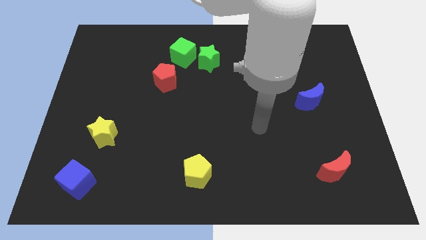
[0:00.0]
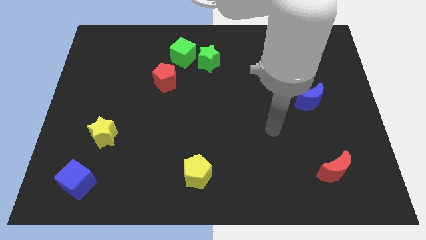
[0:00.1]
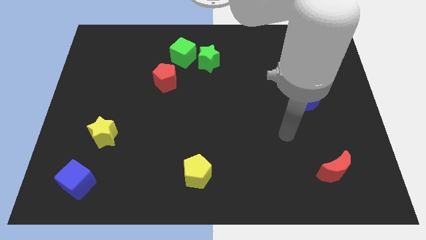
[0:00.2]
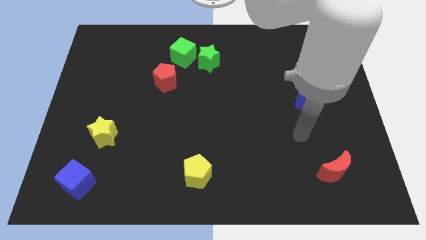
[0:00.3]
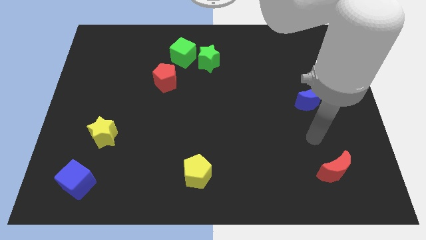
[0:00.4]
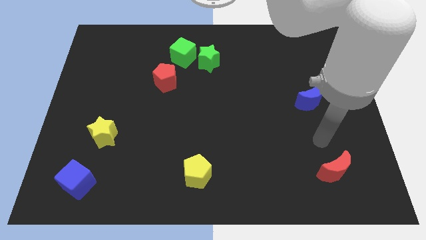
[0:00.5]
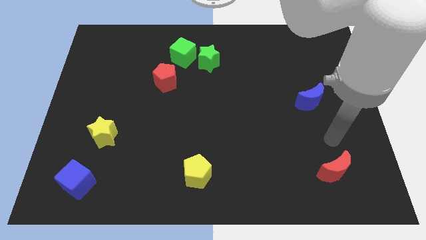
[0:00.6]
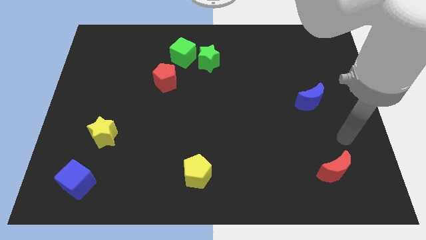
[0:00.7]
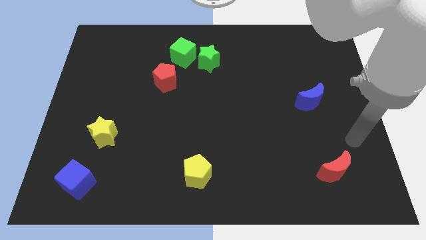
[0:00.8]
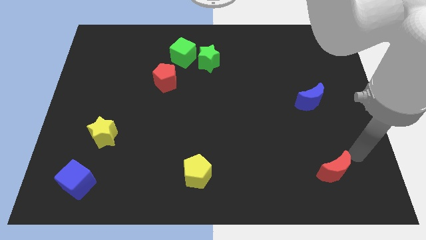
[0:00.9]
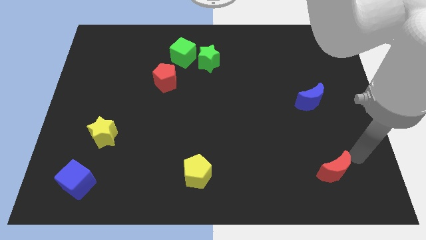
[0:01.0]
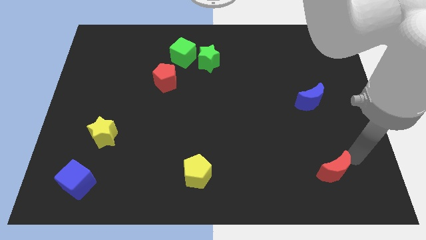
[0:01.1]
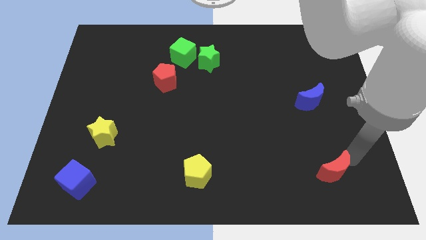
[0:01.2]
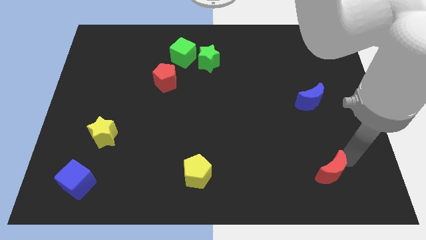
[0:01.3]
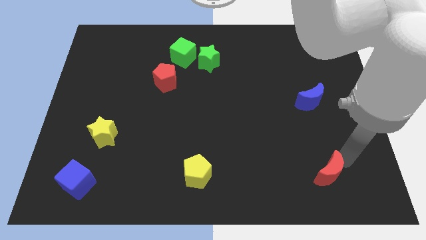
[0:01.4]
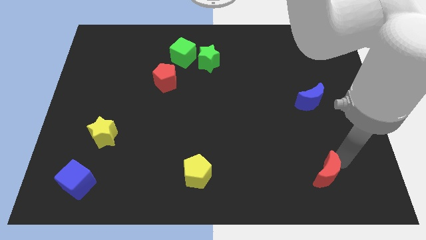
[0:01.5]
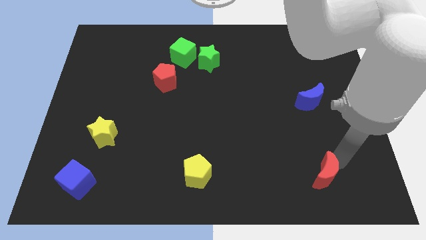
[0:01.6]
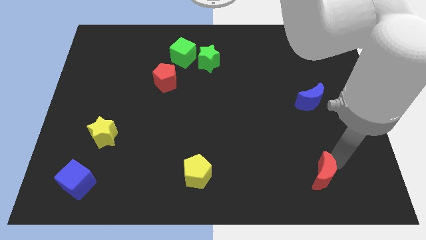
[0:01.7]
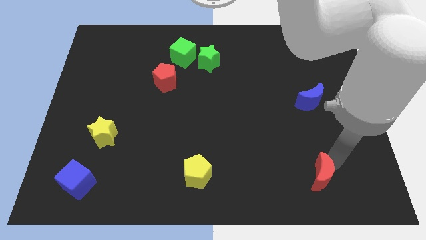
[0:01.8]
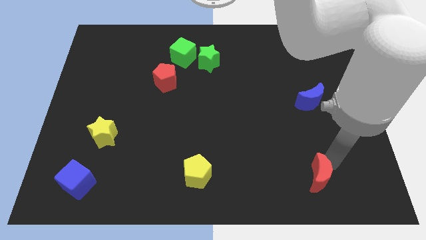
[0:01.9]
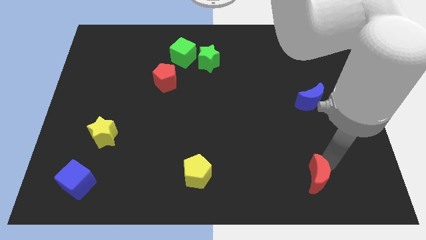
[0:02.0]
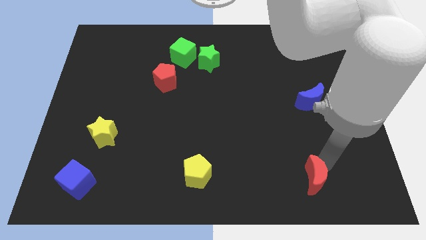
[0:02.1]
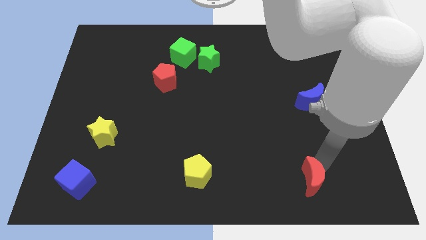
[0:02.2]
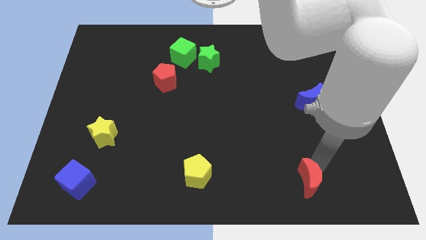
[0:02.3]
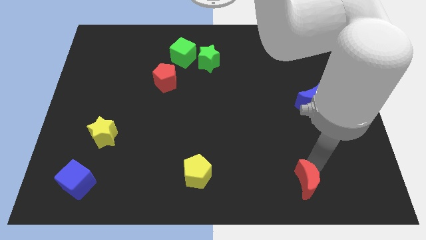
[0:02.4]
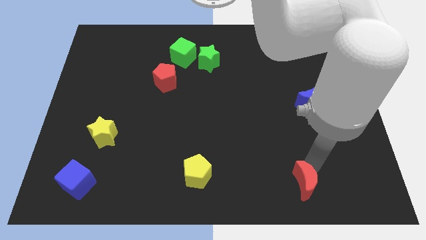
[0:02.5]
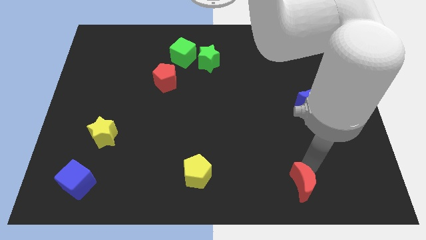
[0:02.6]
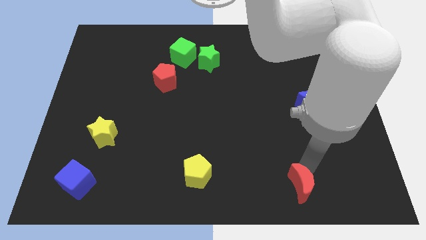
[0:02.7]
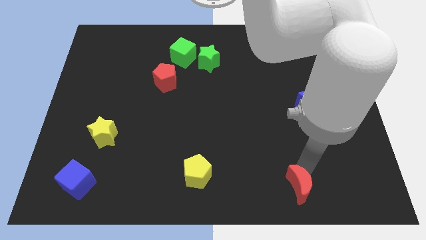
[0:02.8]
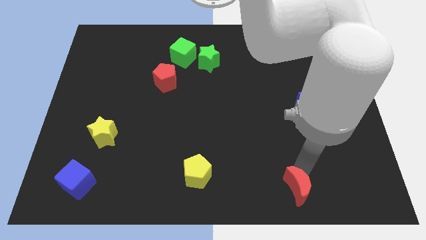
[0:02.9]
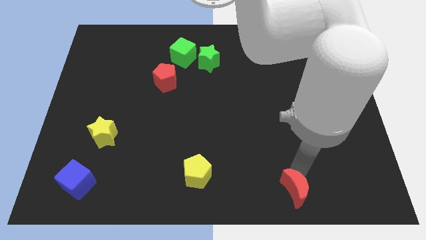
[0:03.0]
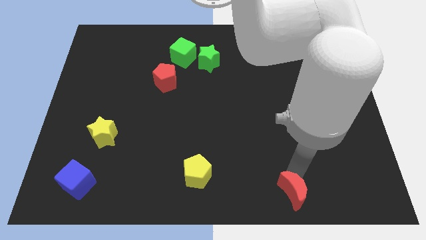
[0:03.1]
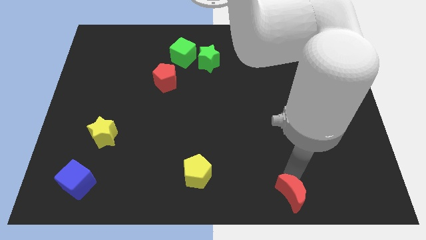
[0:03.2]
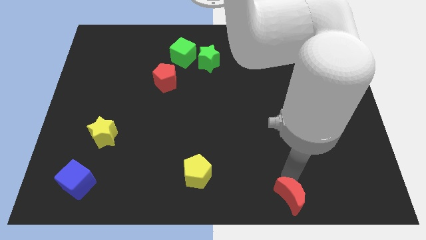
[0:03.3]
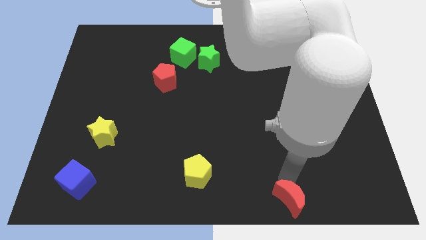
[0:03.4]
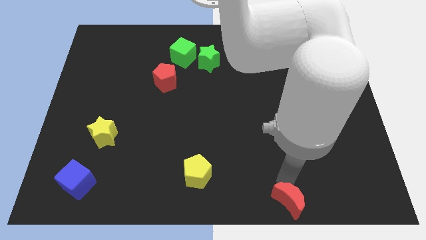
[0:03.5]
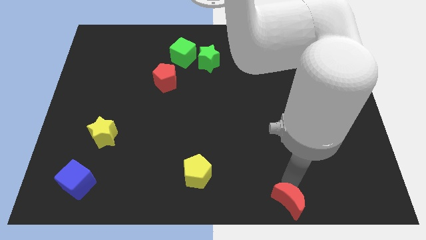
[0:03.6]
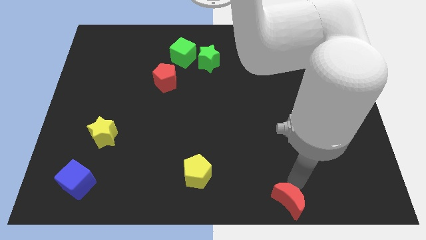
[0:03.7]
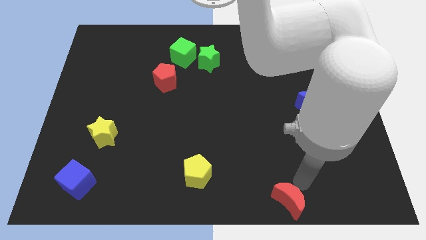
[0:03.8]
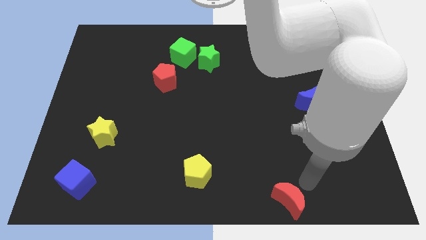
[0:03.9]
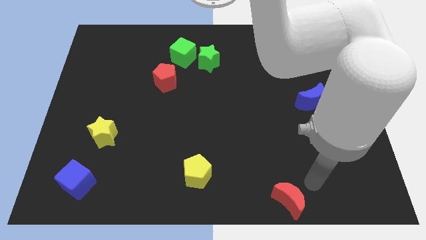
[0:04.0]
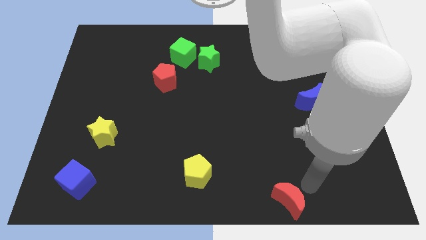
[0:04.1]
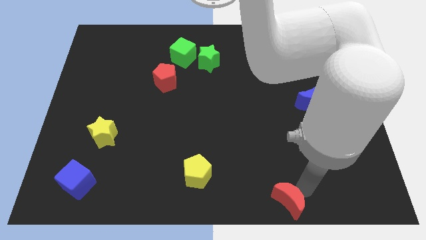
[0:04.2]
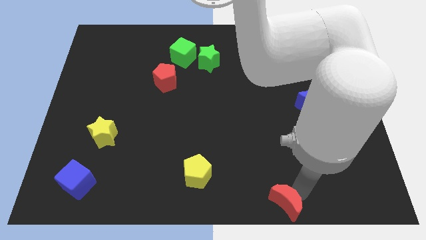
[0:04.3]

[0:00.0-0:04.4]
slide the red moon to the bottom side

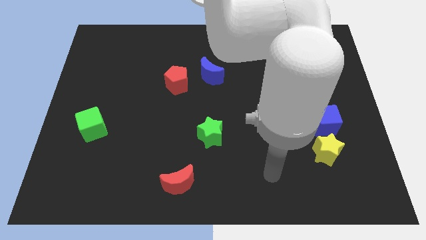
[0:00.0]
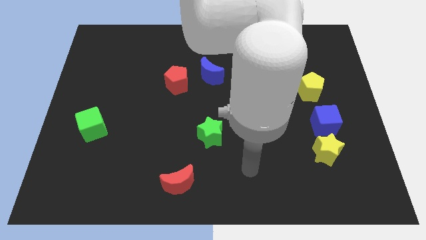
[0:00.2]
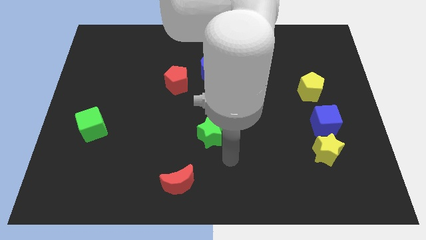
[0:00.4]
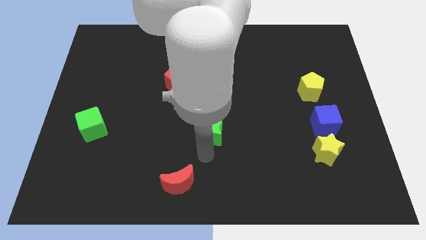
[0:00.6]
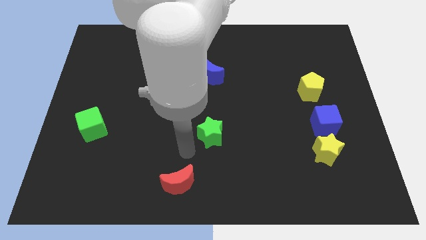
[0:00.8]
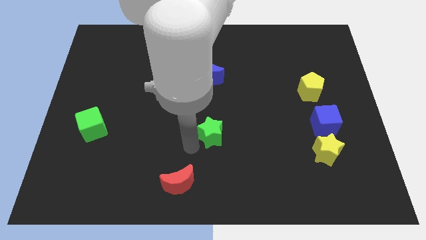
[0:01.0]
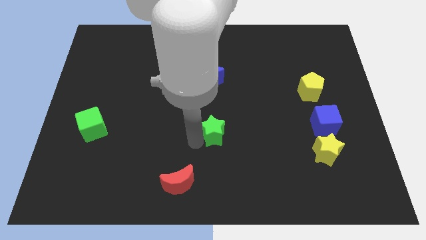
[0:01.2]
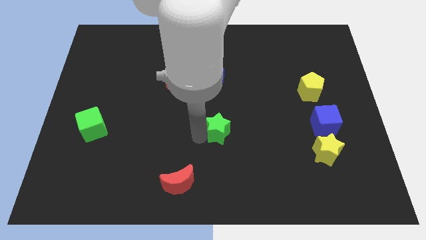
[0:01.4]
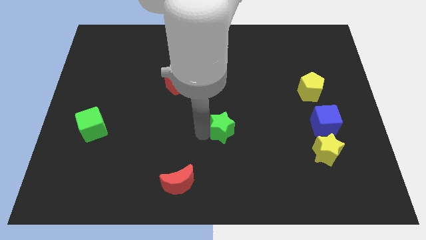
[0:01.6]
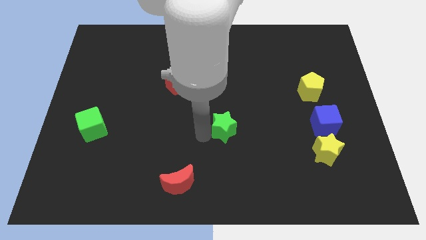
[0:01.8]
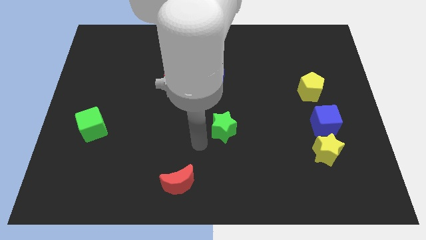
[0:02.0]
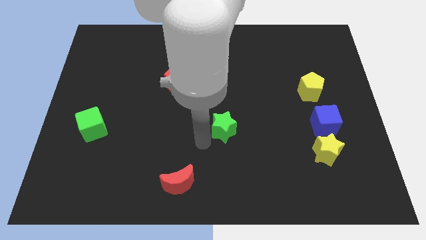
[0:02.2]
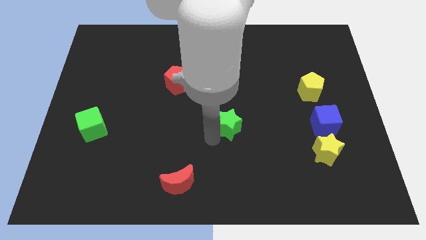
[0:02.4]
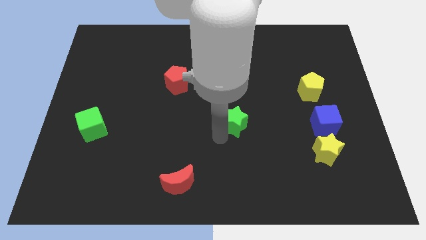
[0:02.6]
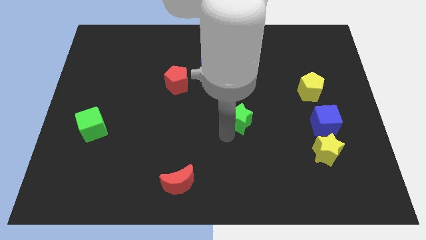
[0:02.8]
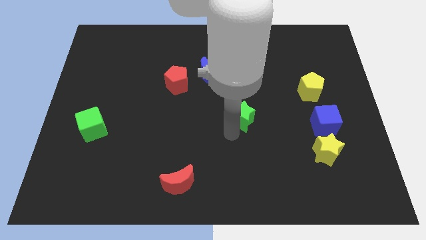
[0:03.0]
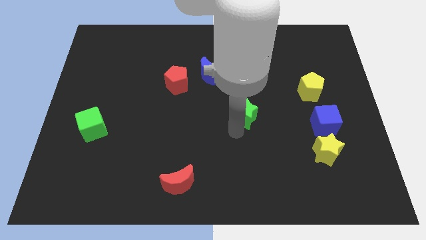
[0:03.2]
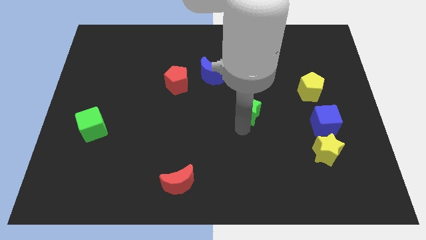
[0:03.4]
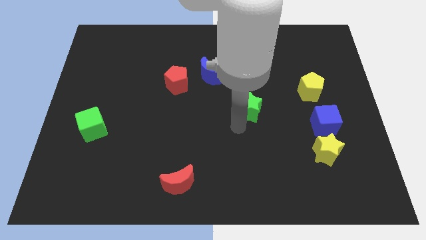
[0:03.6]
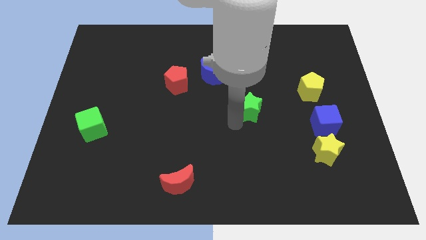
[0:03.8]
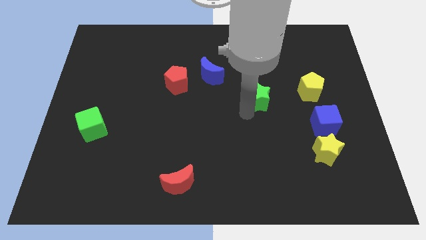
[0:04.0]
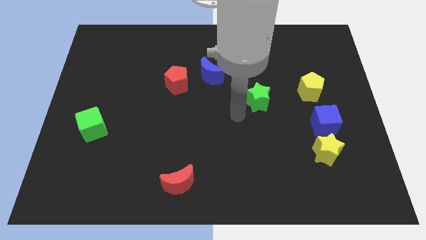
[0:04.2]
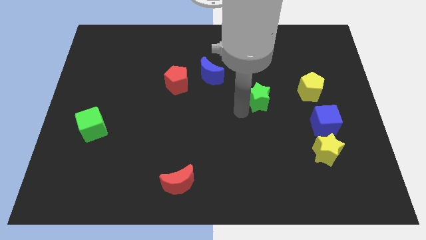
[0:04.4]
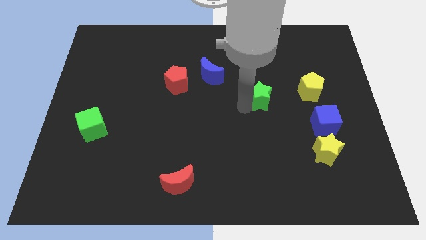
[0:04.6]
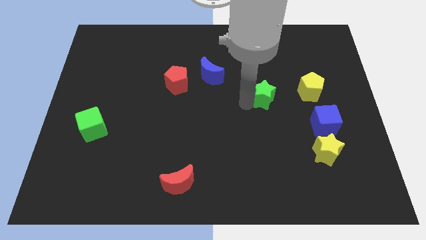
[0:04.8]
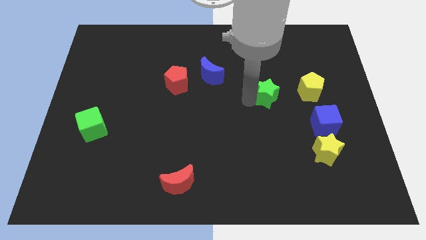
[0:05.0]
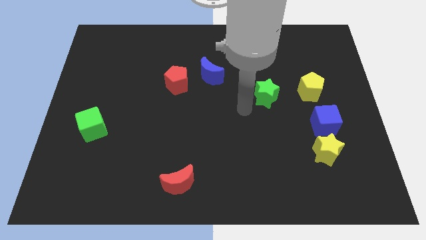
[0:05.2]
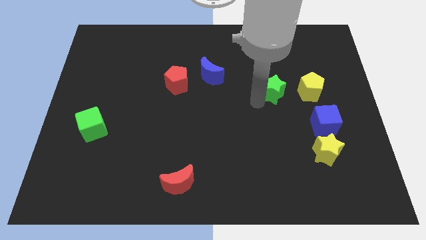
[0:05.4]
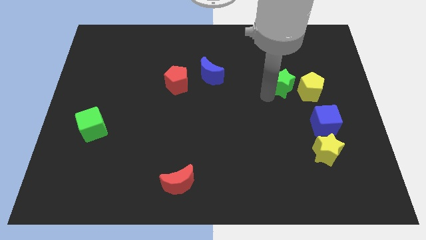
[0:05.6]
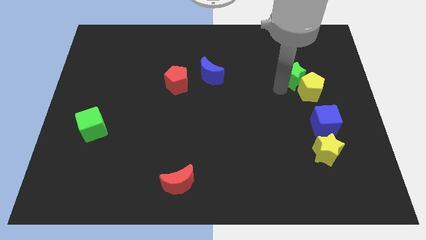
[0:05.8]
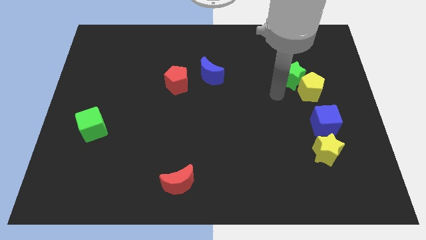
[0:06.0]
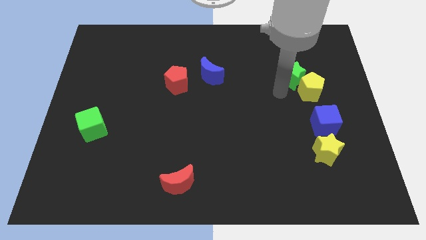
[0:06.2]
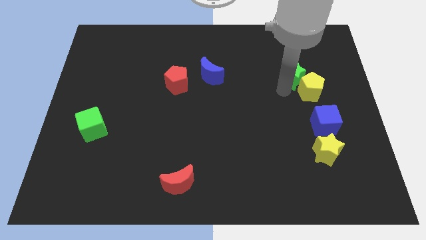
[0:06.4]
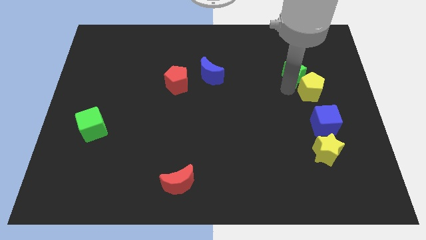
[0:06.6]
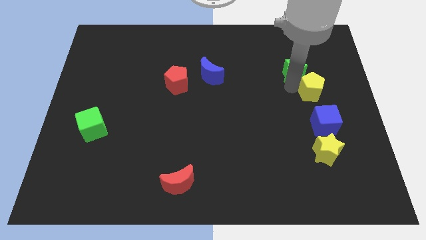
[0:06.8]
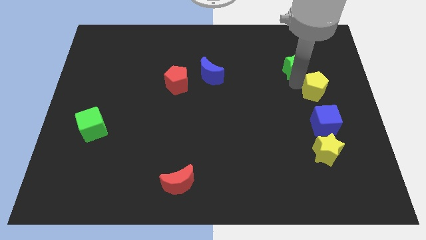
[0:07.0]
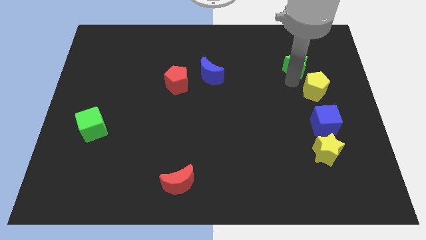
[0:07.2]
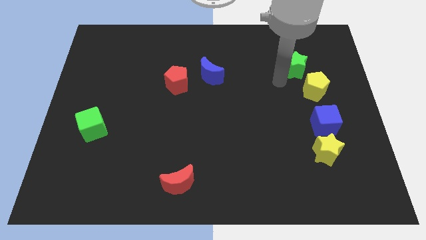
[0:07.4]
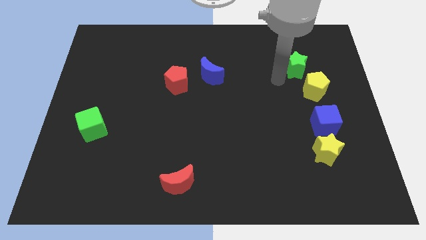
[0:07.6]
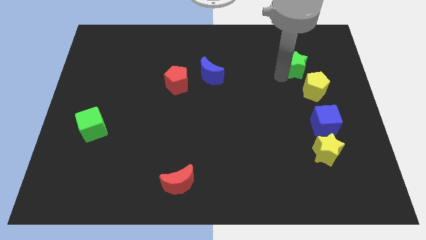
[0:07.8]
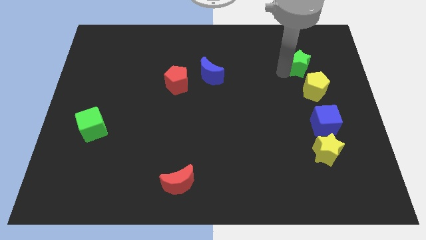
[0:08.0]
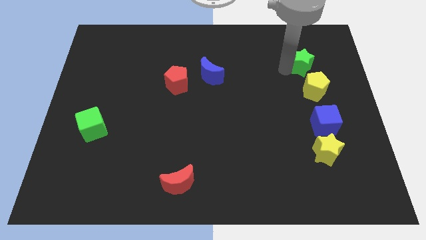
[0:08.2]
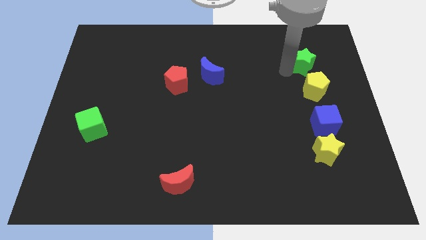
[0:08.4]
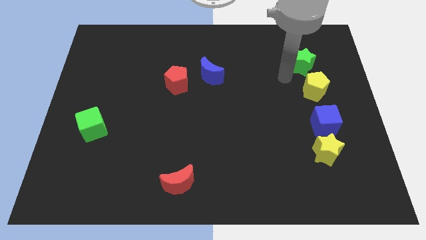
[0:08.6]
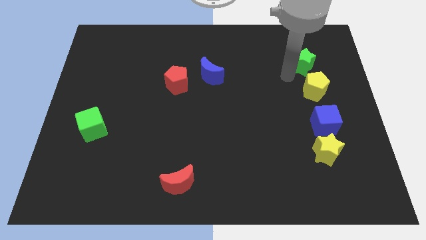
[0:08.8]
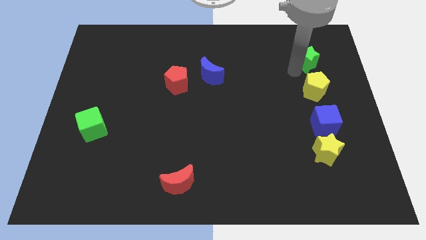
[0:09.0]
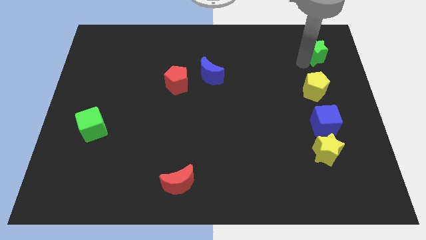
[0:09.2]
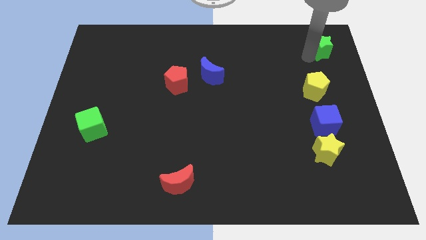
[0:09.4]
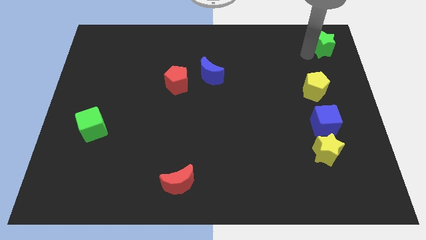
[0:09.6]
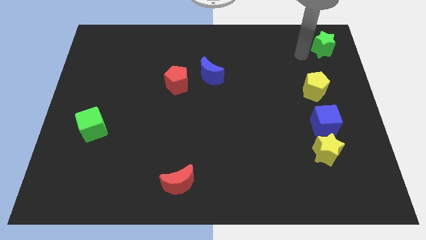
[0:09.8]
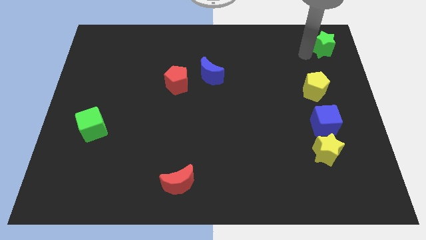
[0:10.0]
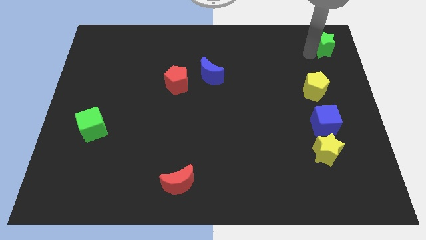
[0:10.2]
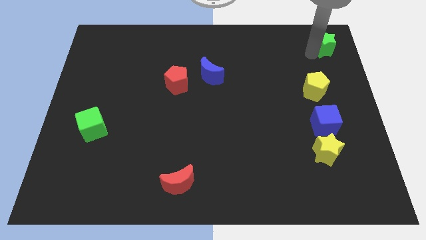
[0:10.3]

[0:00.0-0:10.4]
move the green star to the upper right corner
